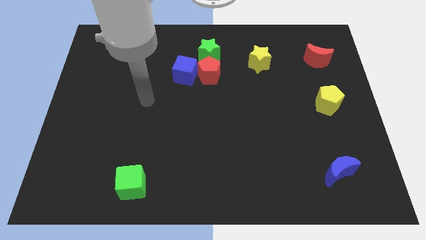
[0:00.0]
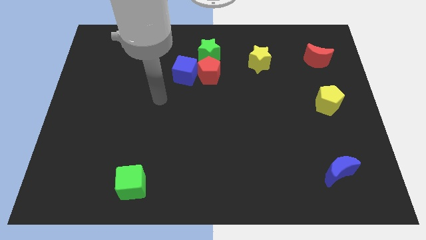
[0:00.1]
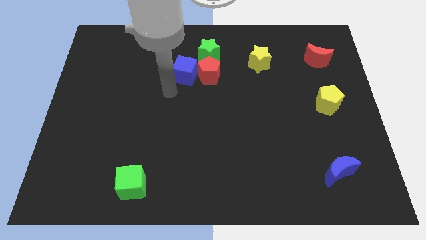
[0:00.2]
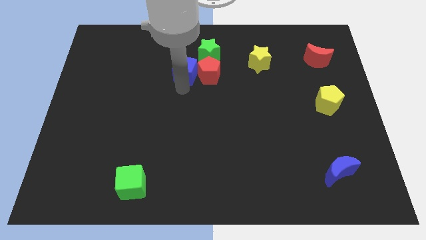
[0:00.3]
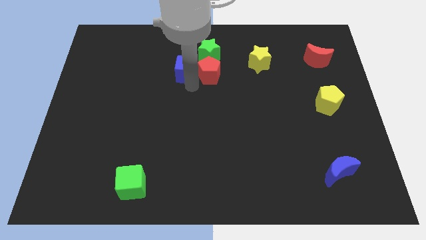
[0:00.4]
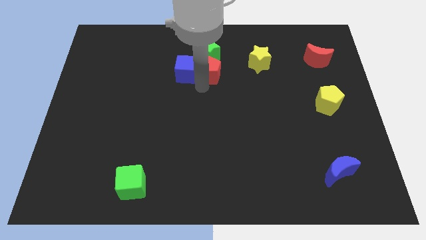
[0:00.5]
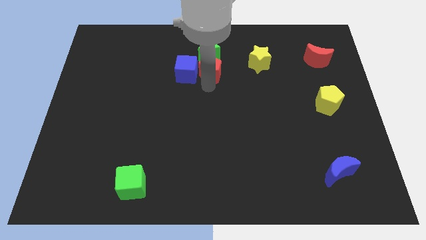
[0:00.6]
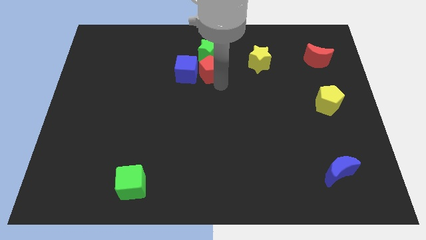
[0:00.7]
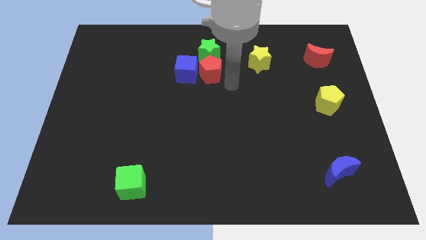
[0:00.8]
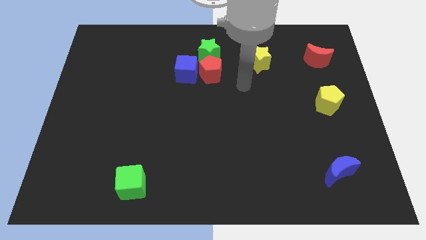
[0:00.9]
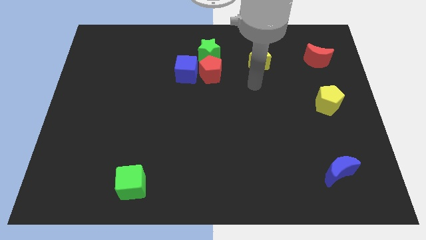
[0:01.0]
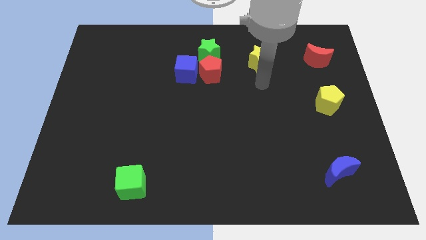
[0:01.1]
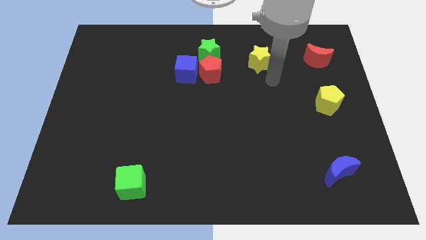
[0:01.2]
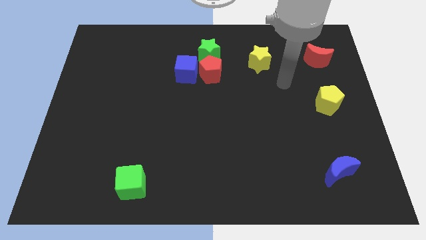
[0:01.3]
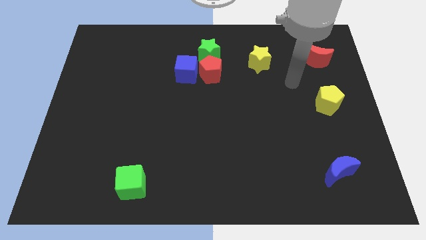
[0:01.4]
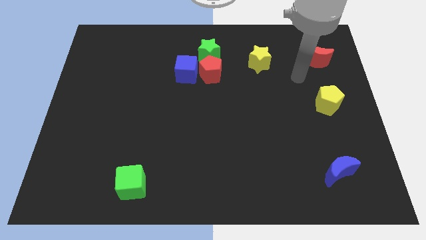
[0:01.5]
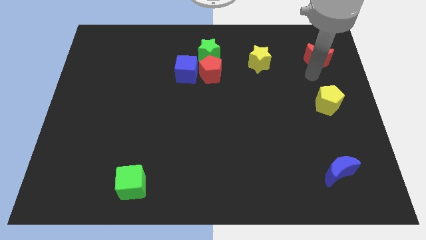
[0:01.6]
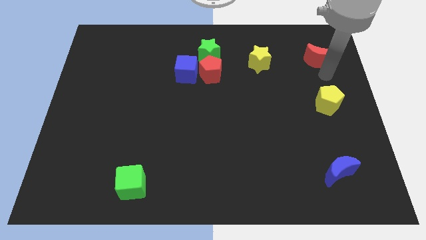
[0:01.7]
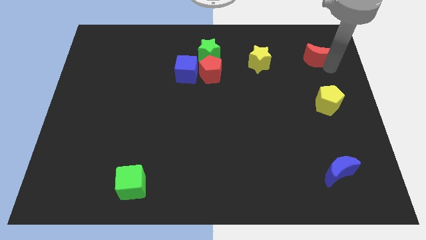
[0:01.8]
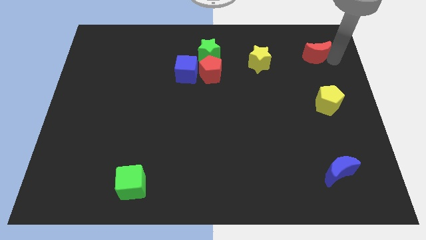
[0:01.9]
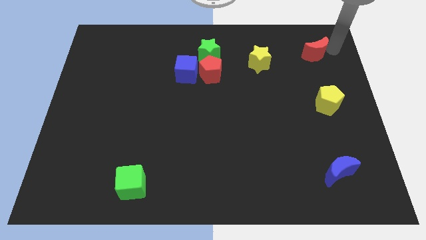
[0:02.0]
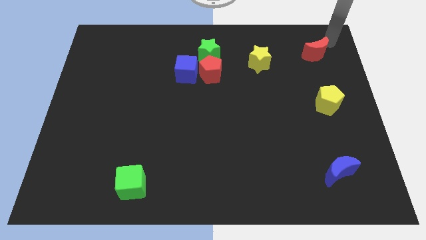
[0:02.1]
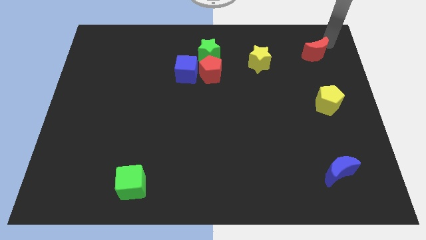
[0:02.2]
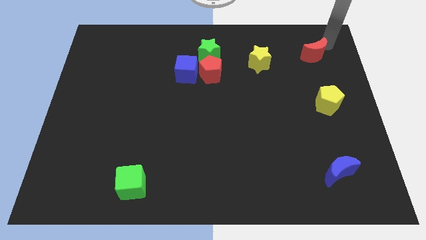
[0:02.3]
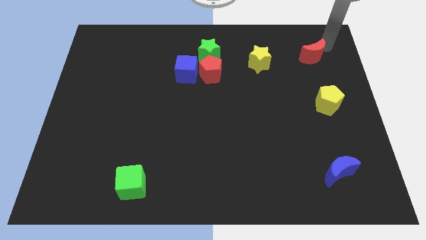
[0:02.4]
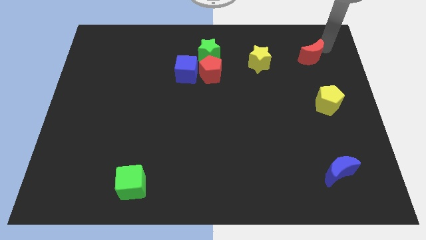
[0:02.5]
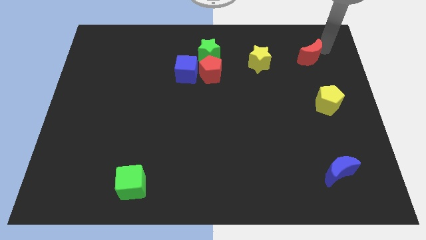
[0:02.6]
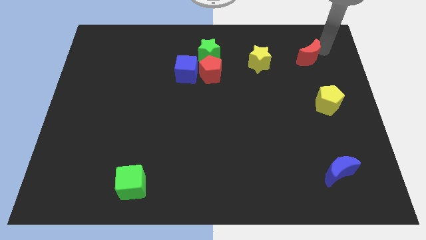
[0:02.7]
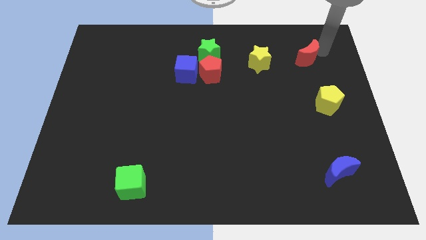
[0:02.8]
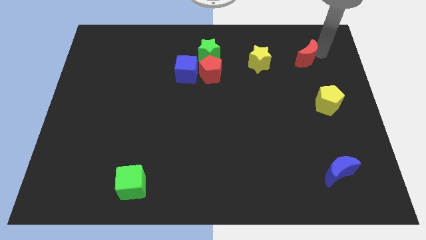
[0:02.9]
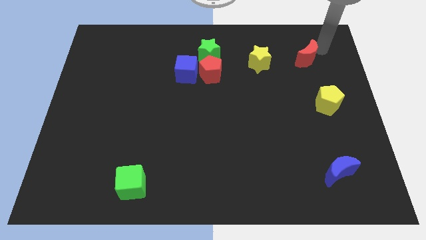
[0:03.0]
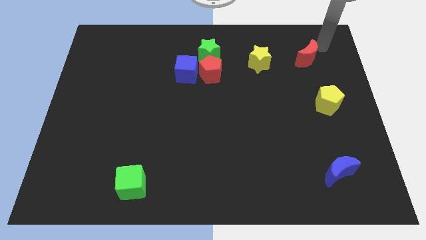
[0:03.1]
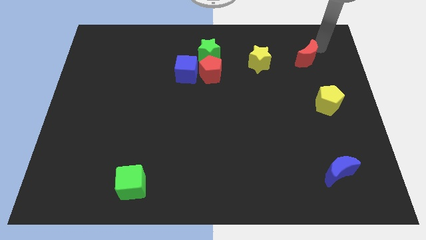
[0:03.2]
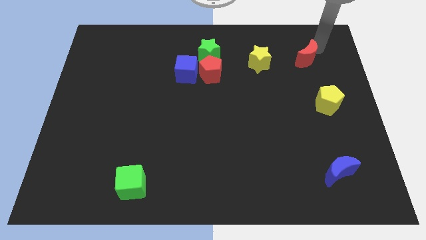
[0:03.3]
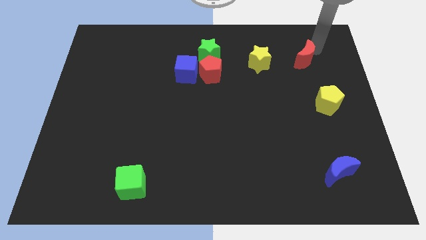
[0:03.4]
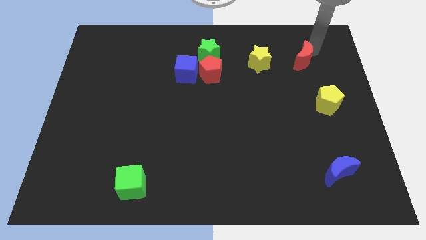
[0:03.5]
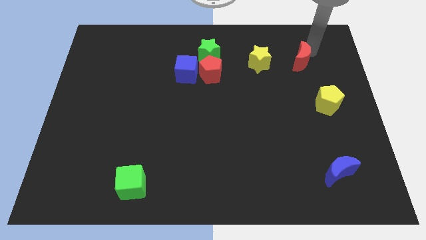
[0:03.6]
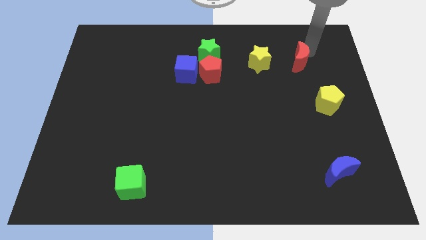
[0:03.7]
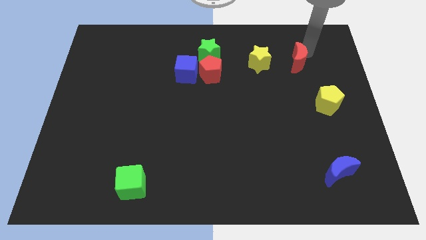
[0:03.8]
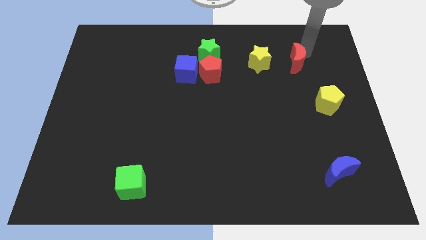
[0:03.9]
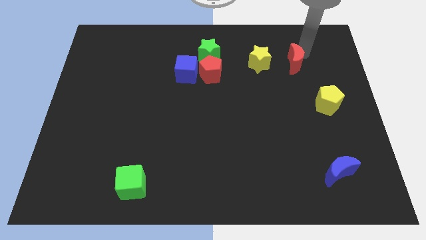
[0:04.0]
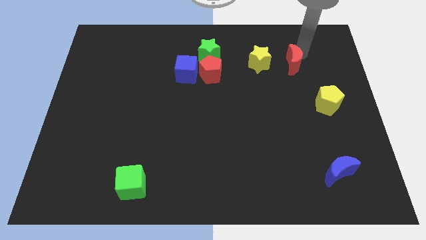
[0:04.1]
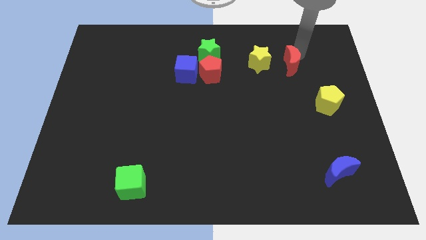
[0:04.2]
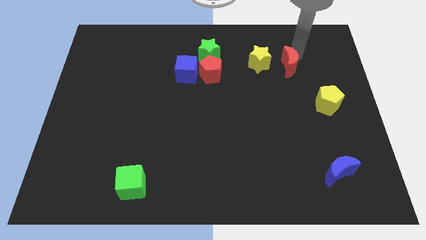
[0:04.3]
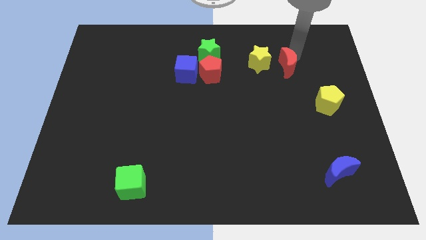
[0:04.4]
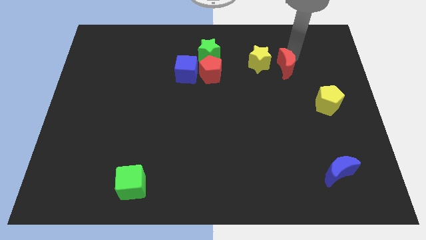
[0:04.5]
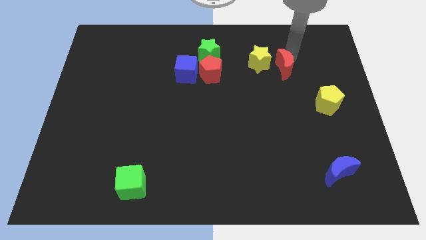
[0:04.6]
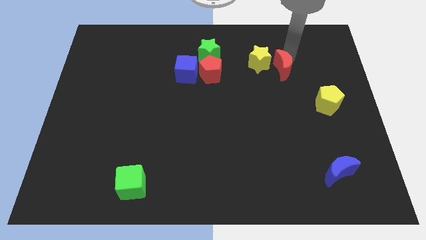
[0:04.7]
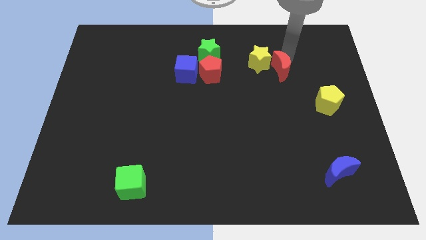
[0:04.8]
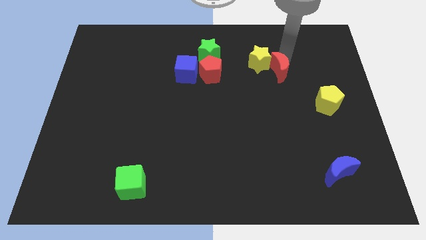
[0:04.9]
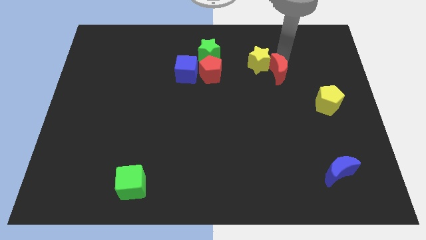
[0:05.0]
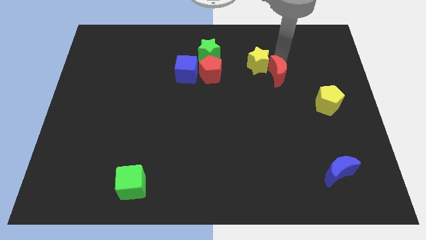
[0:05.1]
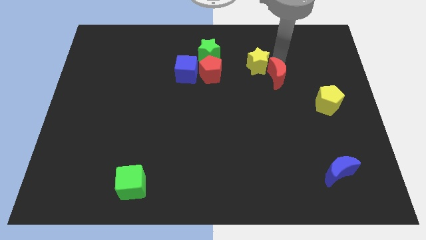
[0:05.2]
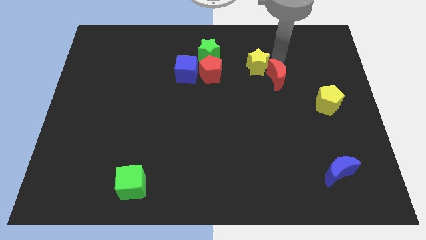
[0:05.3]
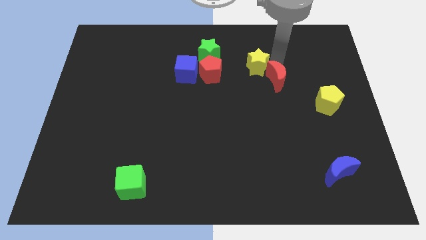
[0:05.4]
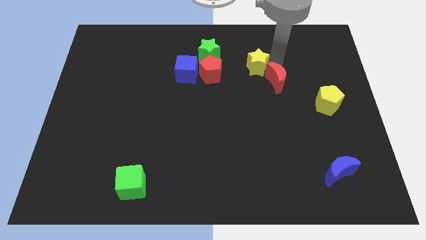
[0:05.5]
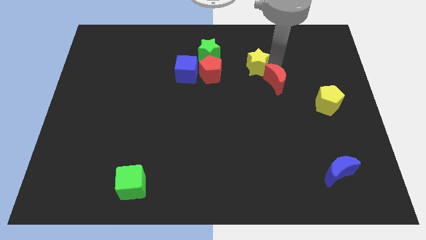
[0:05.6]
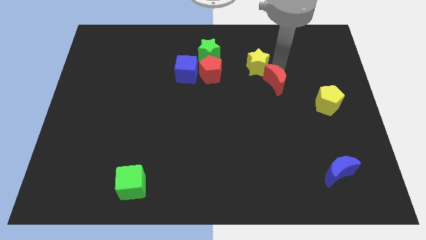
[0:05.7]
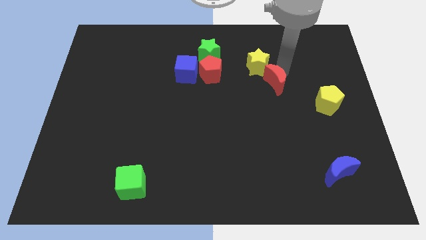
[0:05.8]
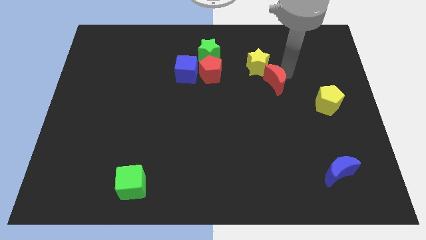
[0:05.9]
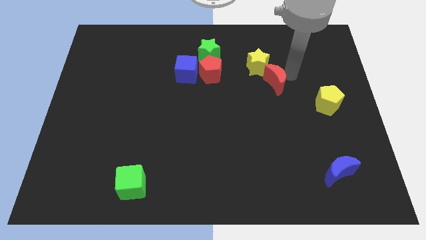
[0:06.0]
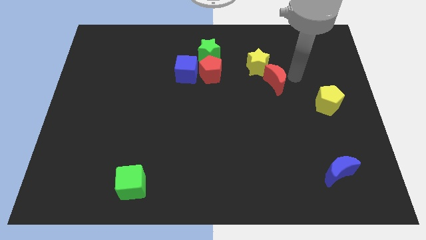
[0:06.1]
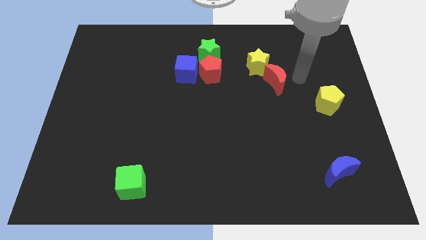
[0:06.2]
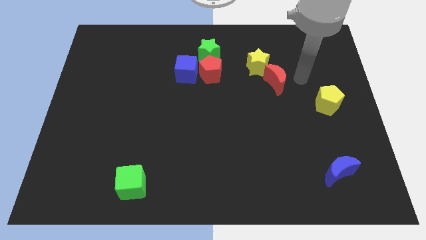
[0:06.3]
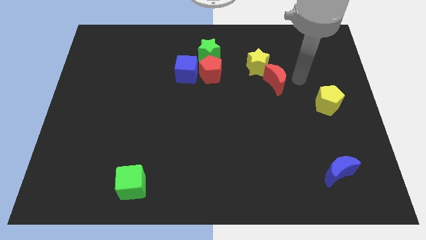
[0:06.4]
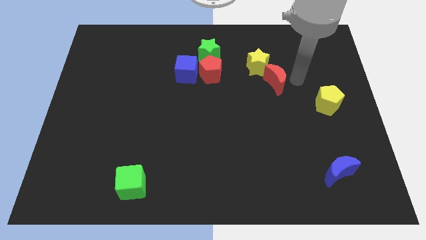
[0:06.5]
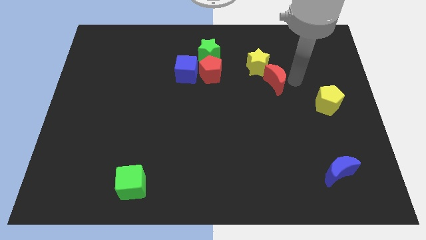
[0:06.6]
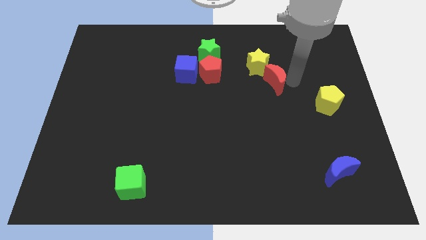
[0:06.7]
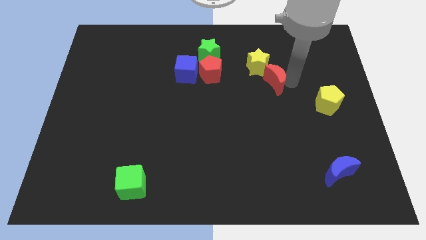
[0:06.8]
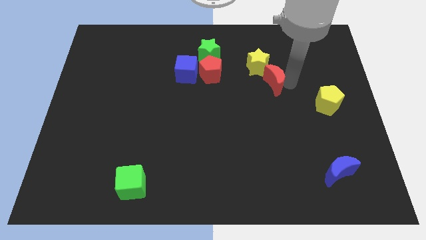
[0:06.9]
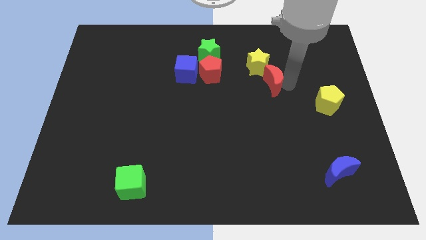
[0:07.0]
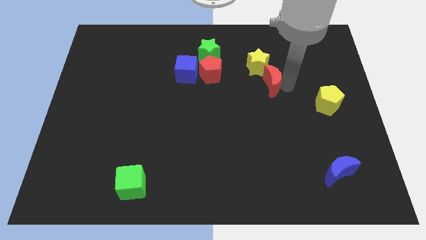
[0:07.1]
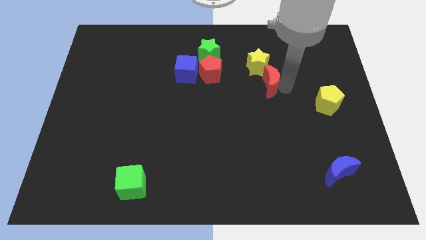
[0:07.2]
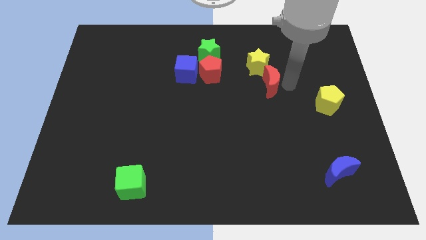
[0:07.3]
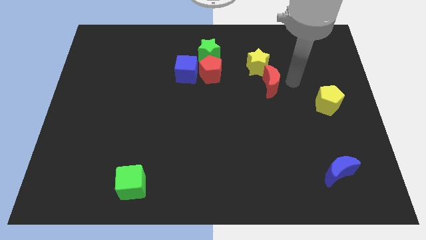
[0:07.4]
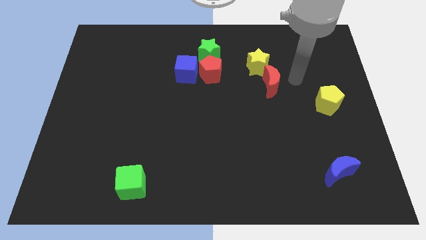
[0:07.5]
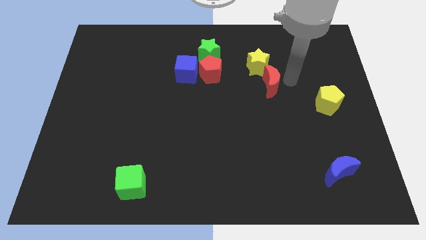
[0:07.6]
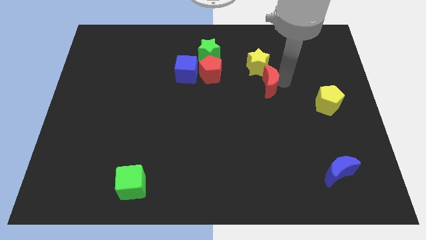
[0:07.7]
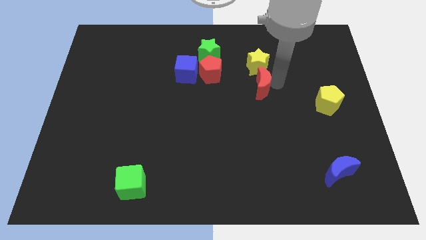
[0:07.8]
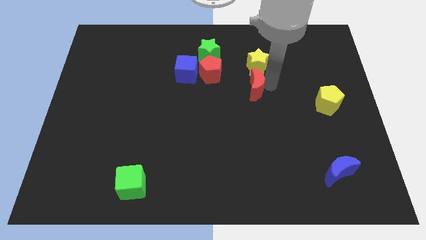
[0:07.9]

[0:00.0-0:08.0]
slide the red moon to the middle
